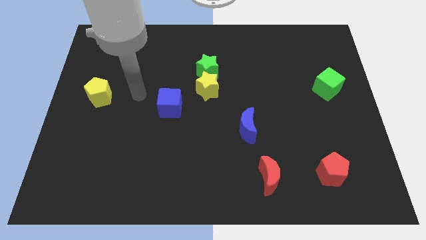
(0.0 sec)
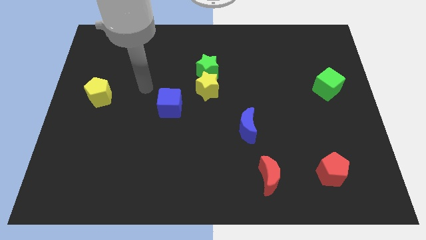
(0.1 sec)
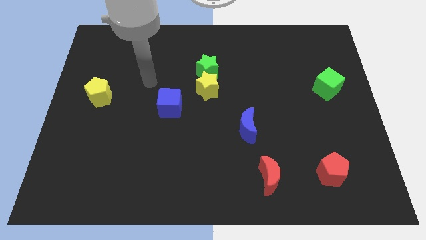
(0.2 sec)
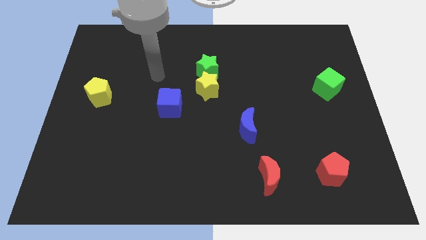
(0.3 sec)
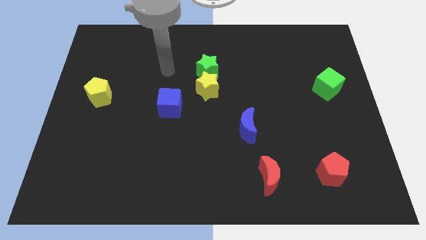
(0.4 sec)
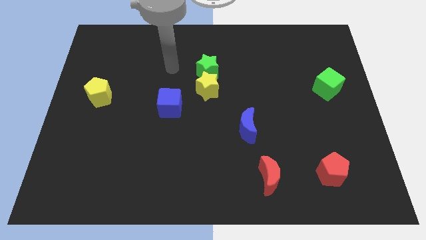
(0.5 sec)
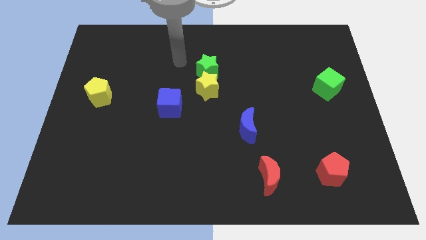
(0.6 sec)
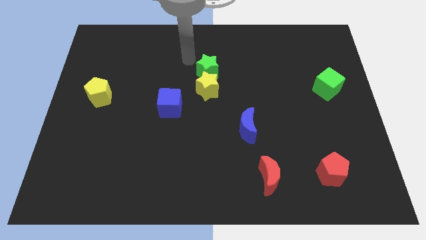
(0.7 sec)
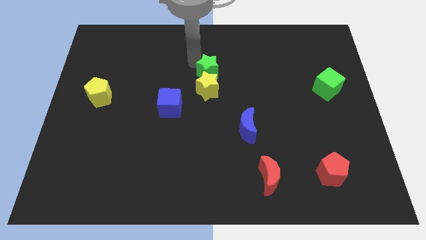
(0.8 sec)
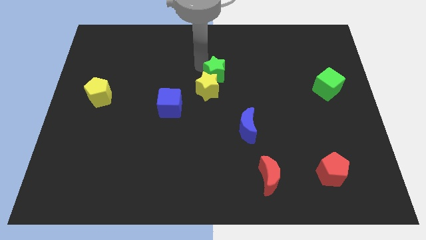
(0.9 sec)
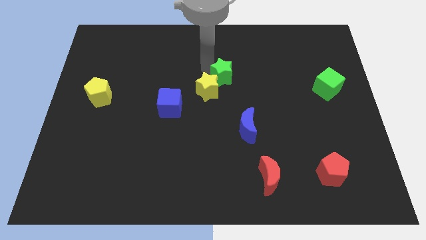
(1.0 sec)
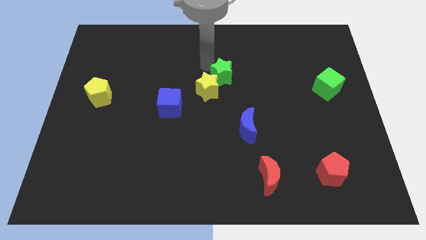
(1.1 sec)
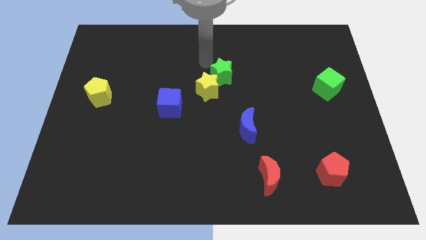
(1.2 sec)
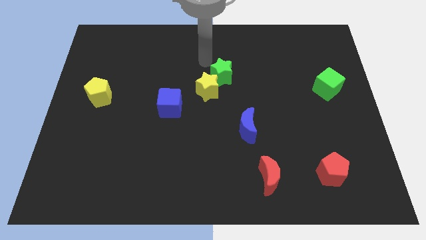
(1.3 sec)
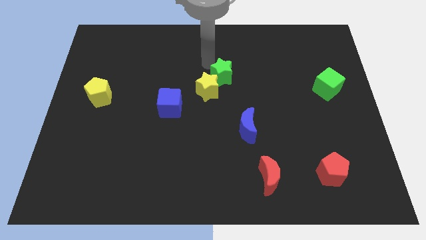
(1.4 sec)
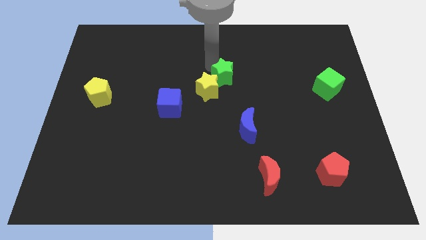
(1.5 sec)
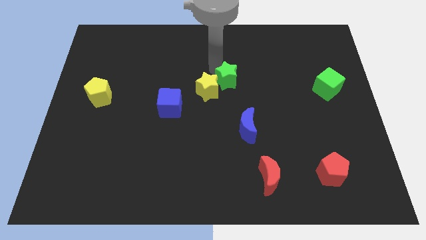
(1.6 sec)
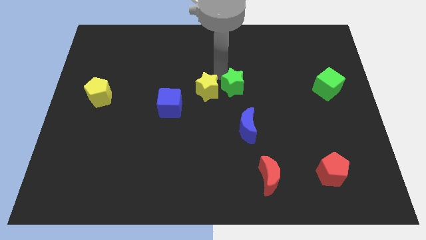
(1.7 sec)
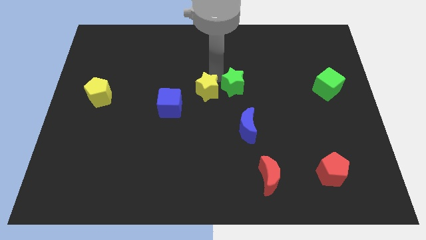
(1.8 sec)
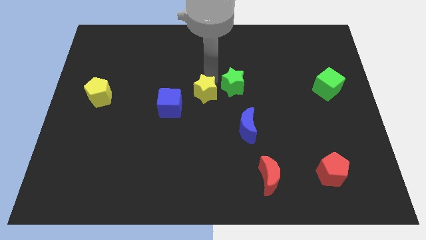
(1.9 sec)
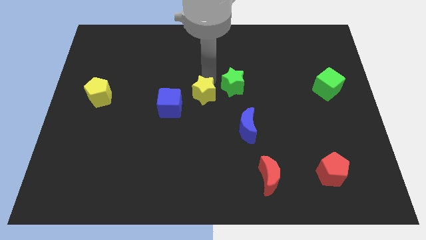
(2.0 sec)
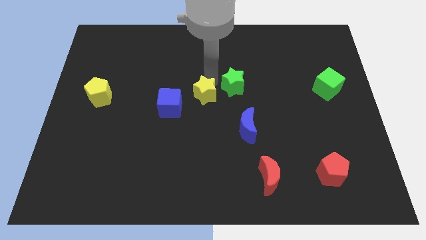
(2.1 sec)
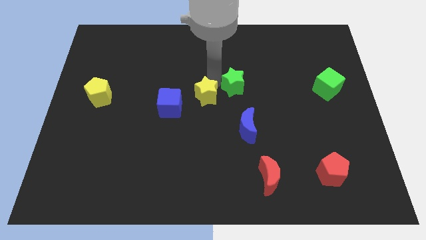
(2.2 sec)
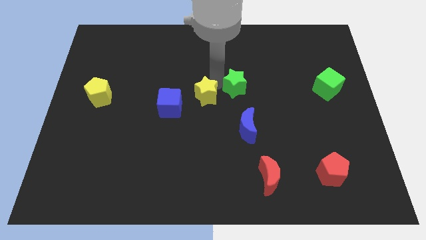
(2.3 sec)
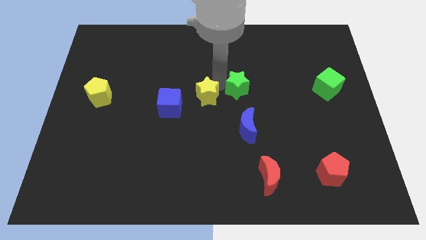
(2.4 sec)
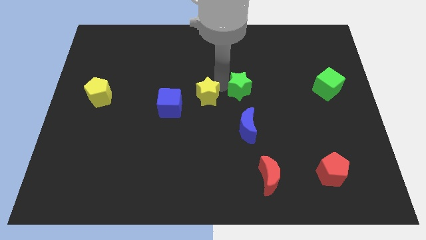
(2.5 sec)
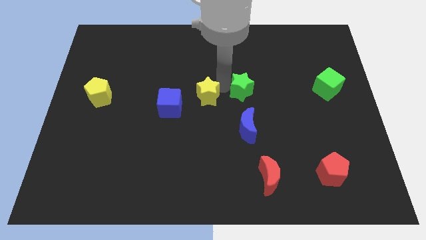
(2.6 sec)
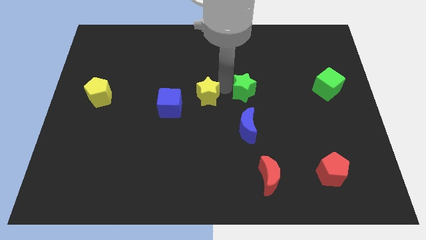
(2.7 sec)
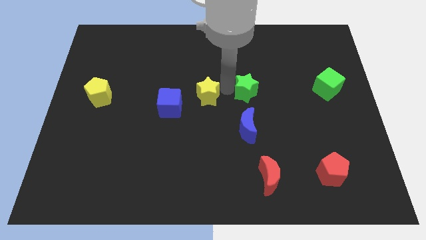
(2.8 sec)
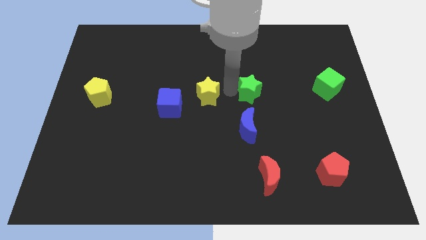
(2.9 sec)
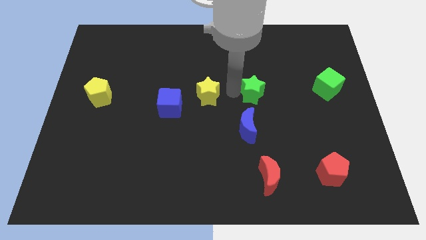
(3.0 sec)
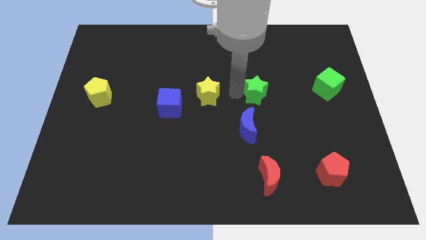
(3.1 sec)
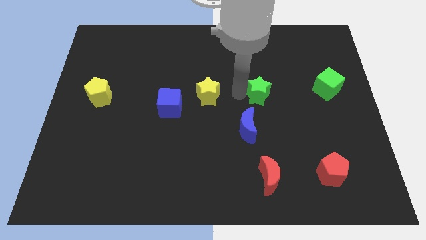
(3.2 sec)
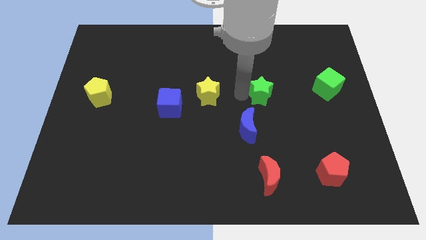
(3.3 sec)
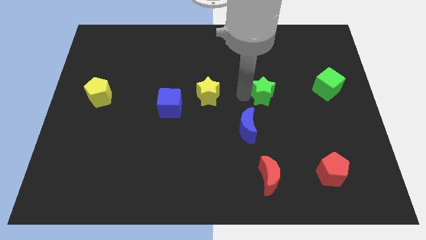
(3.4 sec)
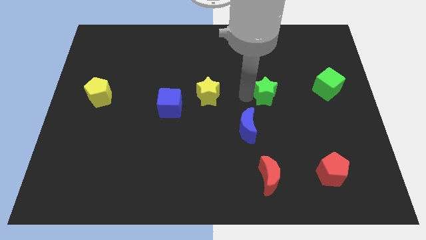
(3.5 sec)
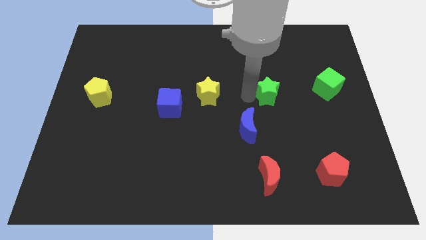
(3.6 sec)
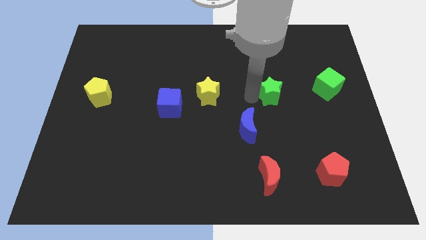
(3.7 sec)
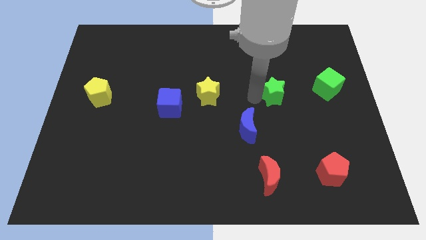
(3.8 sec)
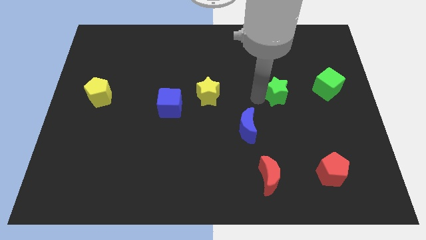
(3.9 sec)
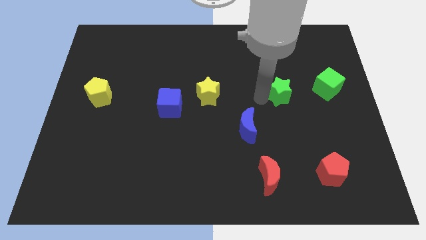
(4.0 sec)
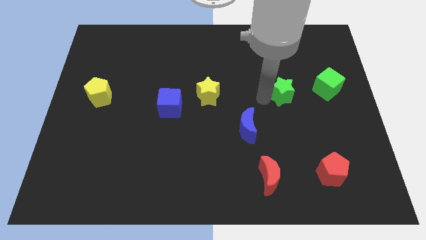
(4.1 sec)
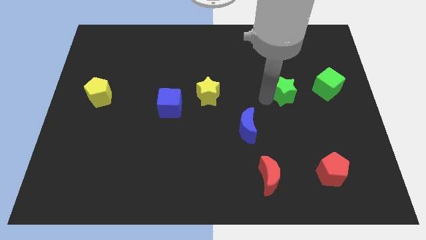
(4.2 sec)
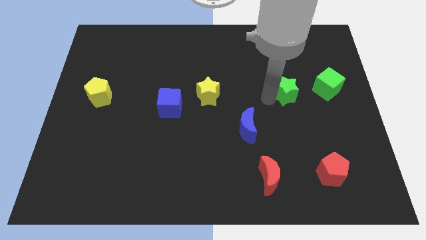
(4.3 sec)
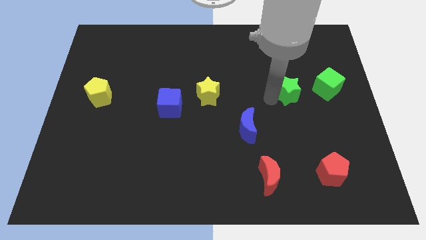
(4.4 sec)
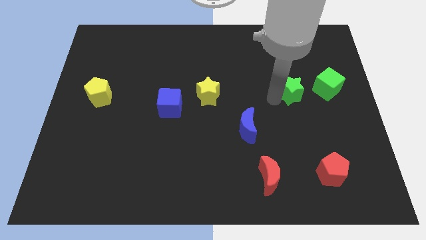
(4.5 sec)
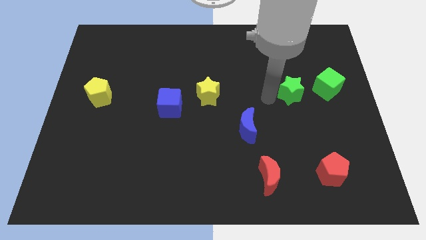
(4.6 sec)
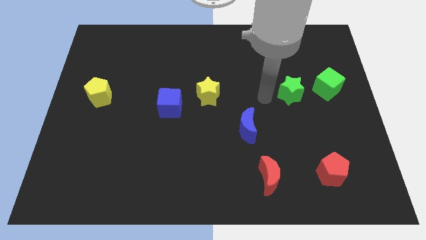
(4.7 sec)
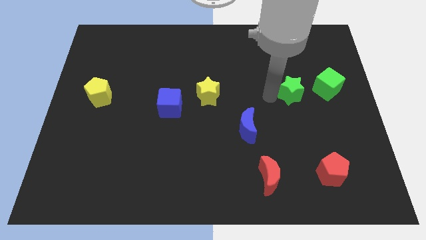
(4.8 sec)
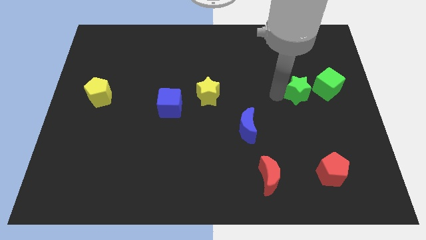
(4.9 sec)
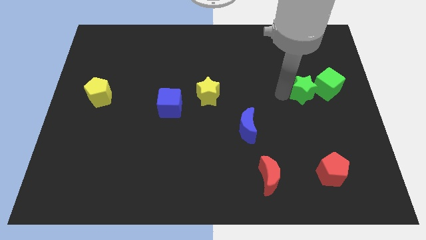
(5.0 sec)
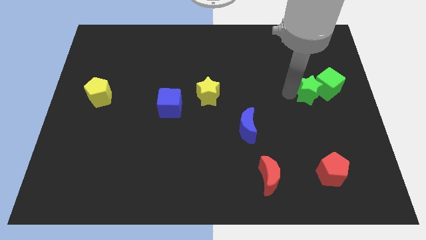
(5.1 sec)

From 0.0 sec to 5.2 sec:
put the green star to the green cube

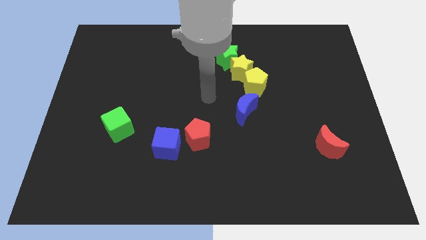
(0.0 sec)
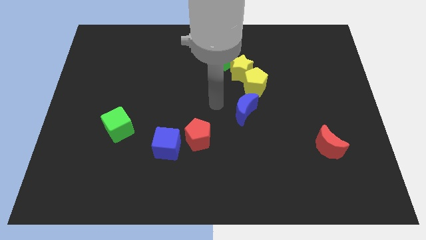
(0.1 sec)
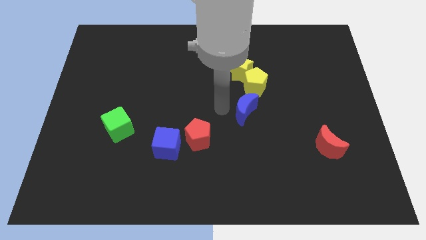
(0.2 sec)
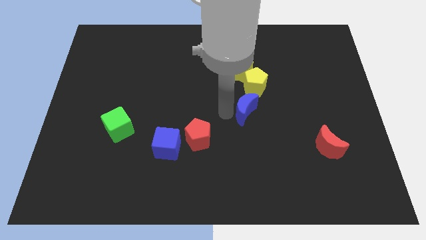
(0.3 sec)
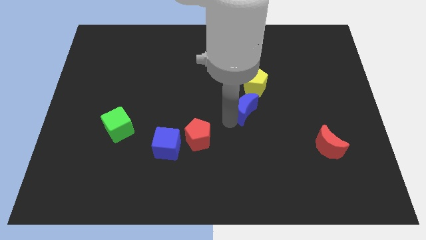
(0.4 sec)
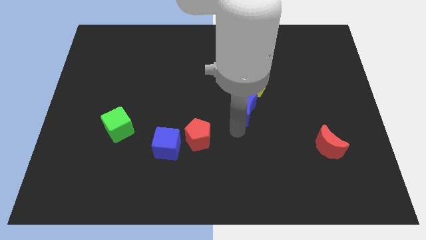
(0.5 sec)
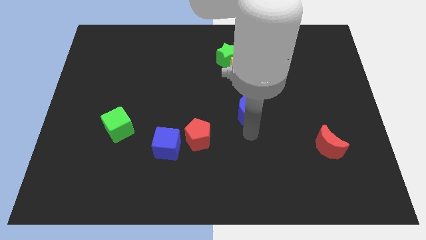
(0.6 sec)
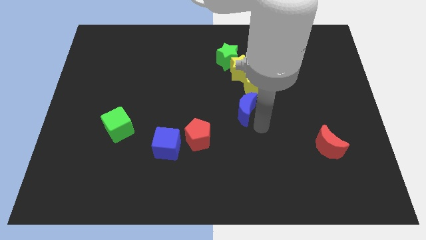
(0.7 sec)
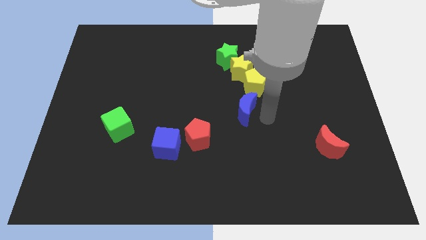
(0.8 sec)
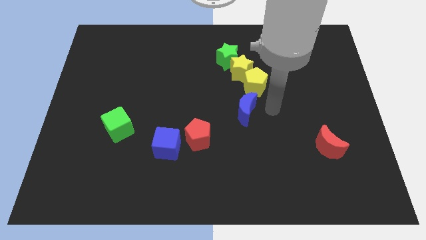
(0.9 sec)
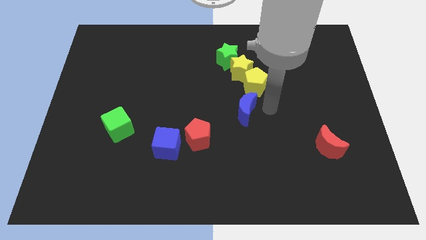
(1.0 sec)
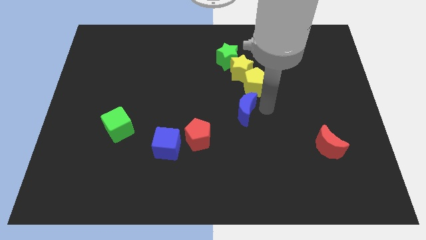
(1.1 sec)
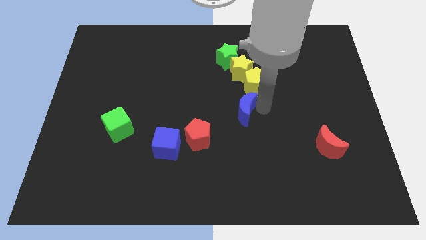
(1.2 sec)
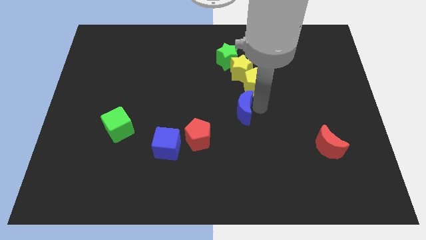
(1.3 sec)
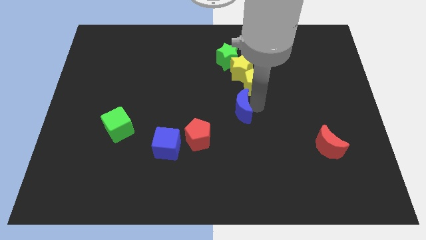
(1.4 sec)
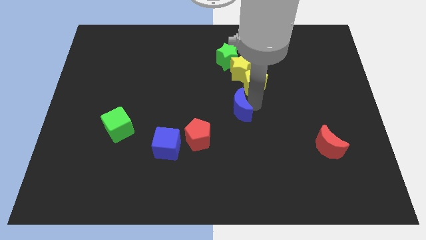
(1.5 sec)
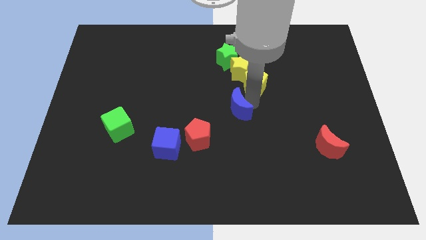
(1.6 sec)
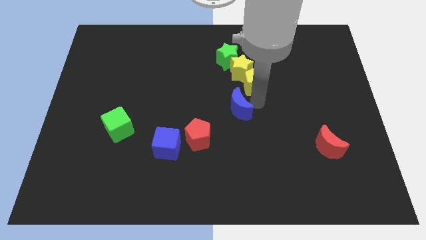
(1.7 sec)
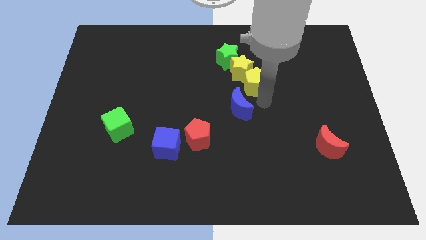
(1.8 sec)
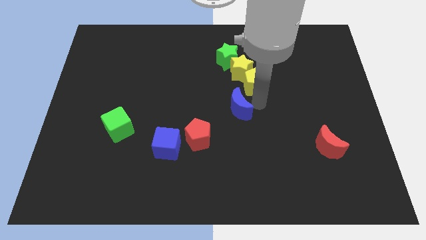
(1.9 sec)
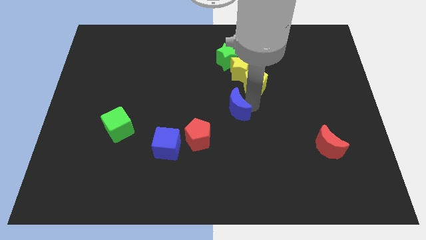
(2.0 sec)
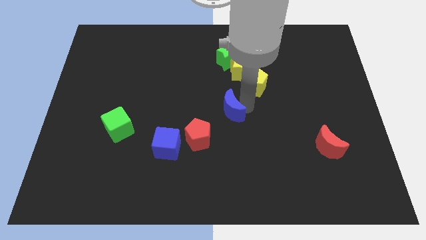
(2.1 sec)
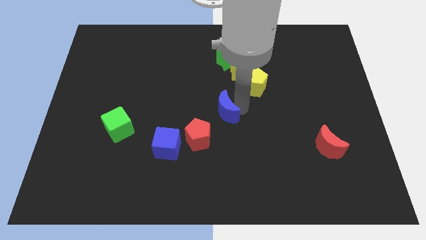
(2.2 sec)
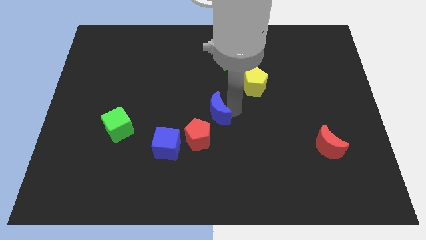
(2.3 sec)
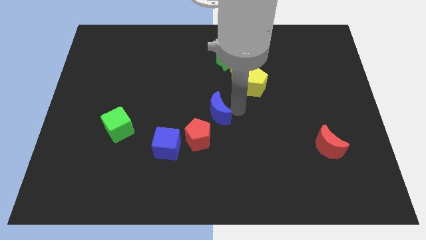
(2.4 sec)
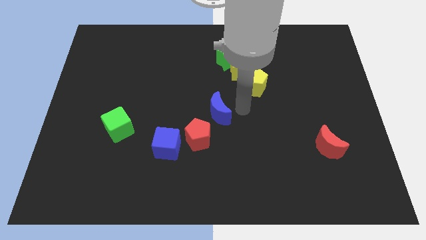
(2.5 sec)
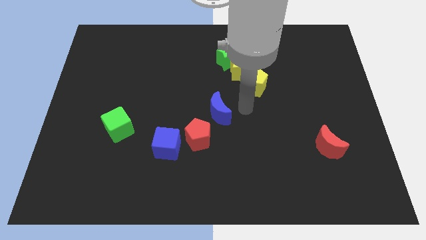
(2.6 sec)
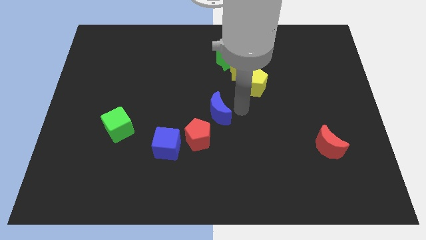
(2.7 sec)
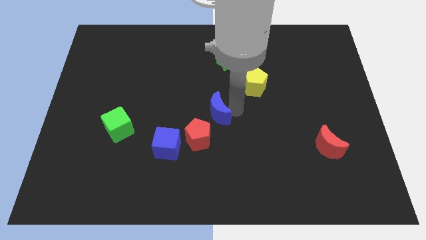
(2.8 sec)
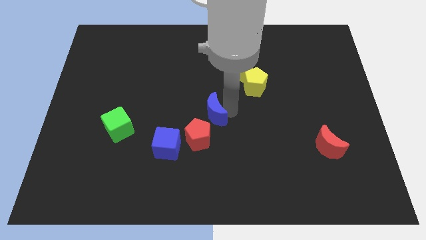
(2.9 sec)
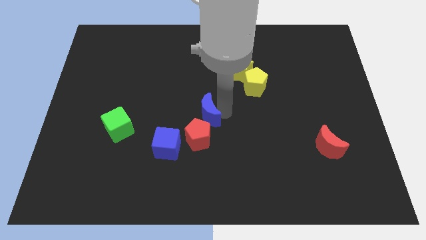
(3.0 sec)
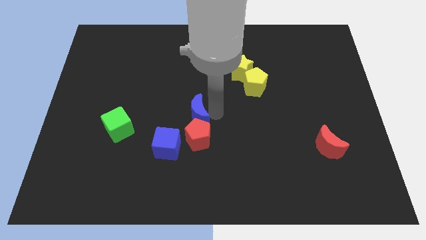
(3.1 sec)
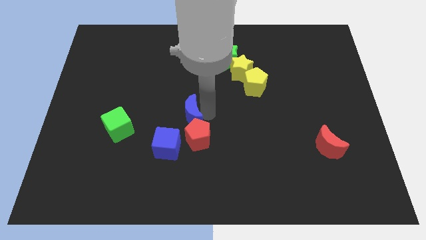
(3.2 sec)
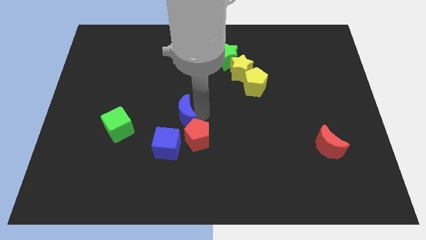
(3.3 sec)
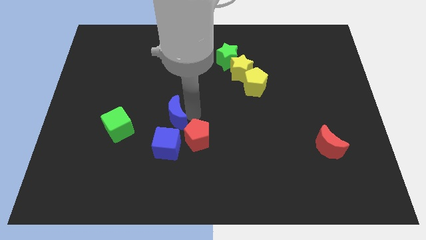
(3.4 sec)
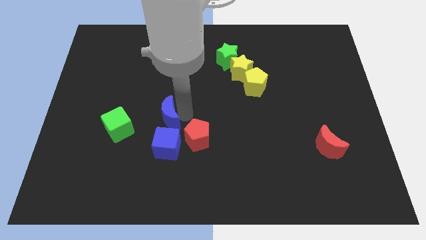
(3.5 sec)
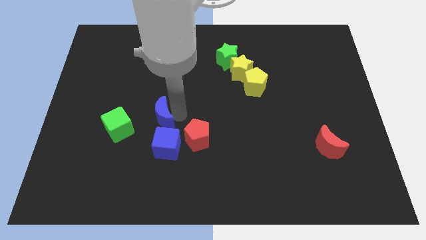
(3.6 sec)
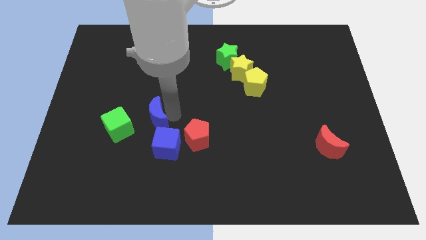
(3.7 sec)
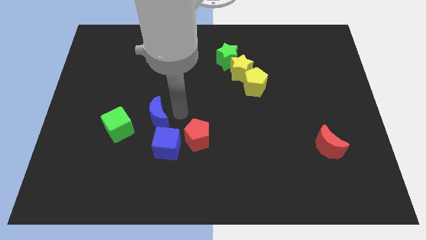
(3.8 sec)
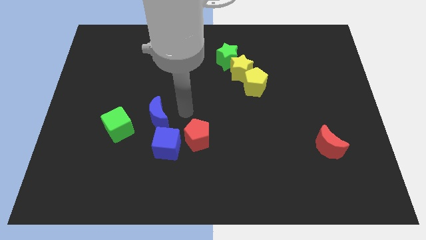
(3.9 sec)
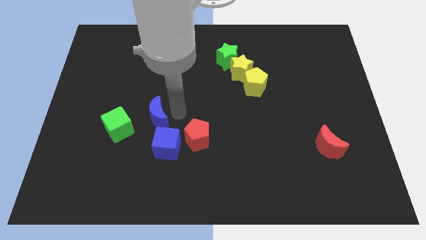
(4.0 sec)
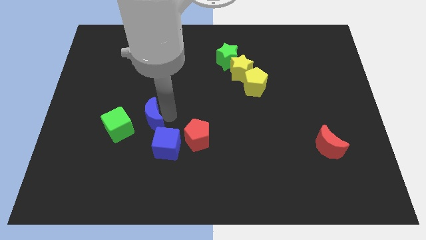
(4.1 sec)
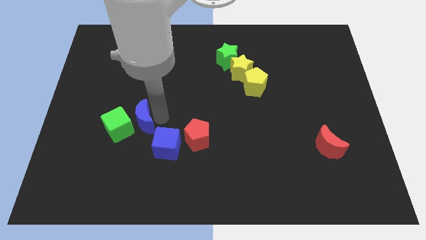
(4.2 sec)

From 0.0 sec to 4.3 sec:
slide the blue moon next to the green cube
